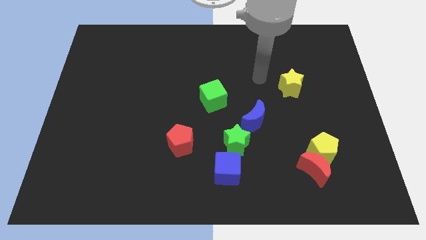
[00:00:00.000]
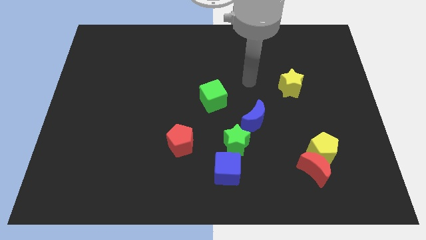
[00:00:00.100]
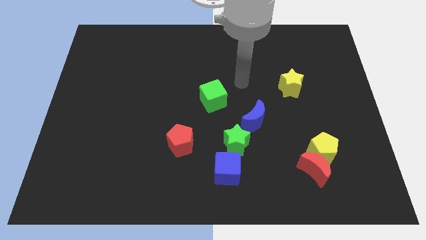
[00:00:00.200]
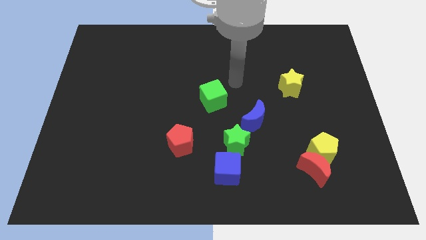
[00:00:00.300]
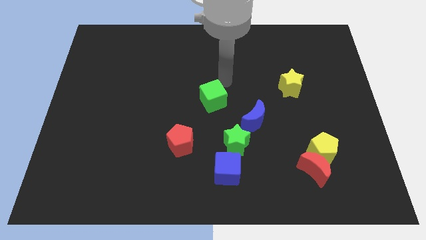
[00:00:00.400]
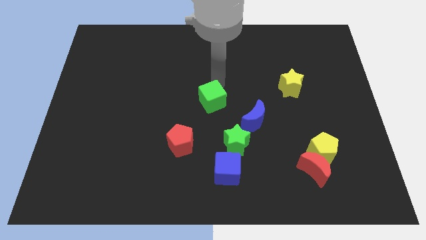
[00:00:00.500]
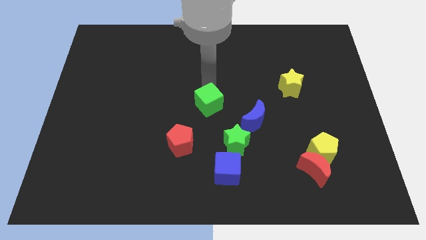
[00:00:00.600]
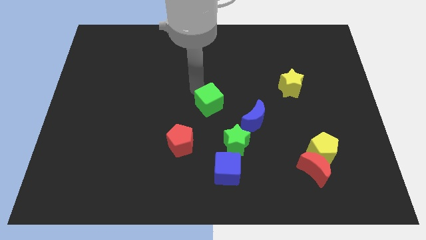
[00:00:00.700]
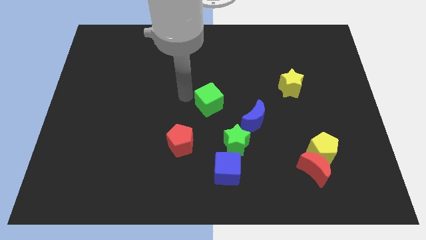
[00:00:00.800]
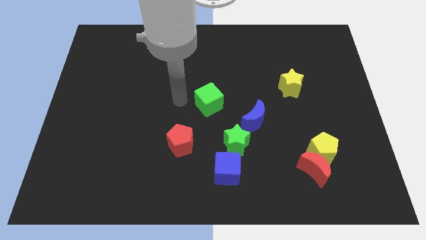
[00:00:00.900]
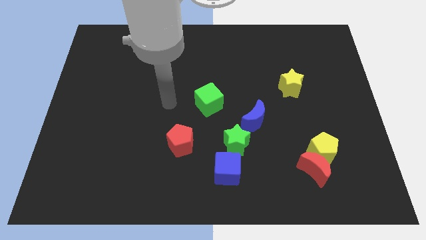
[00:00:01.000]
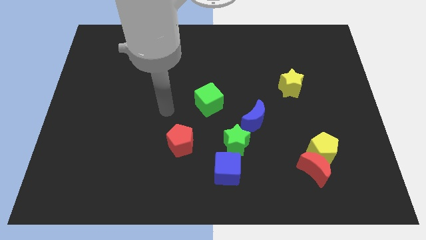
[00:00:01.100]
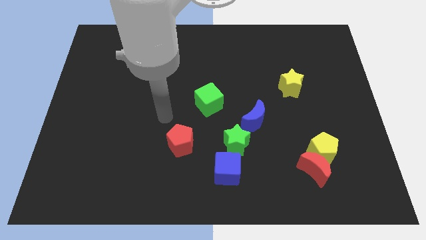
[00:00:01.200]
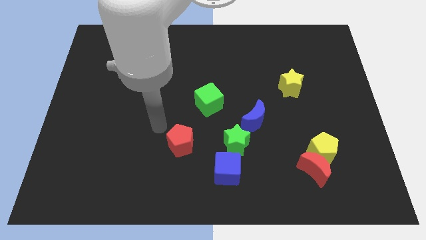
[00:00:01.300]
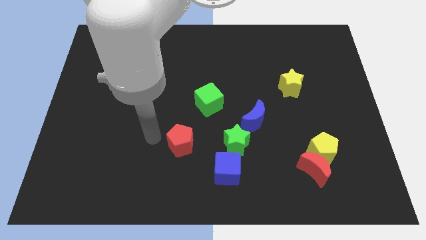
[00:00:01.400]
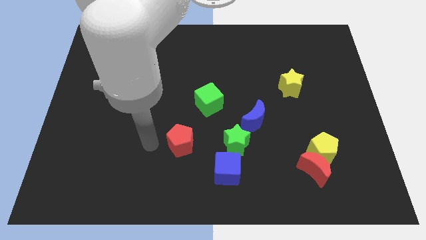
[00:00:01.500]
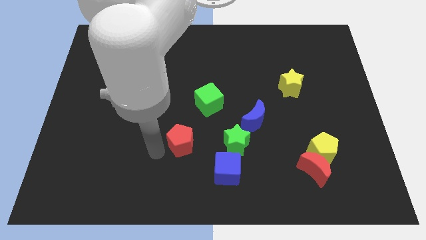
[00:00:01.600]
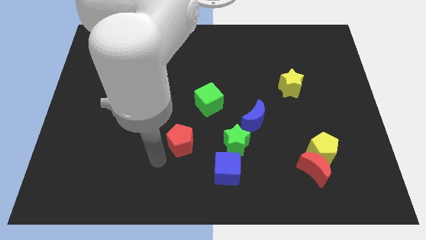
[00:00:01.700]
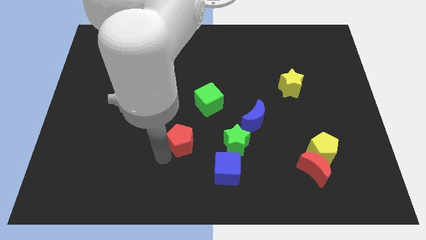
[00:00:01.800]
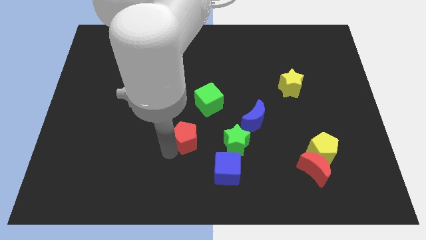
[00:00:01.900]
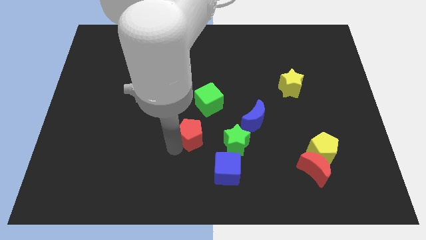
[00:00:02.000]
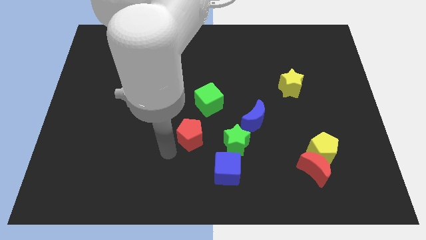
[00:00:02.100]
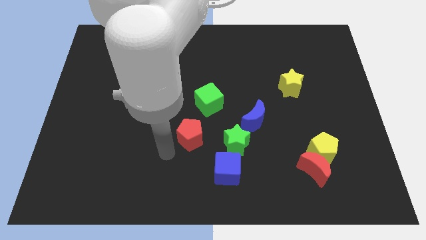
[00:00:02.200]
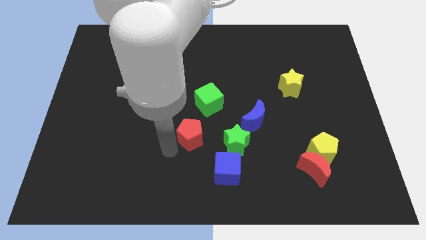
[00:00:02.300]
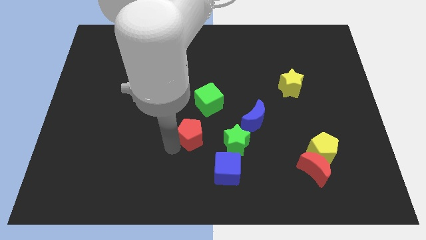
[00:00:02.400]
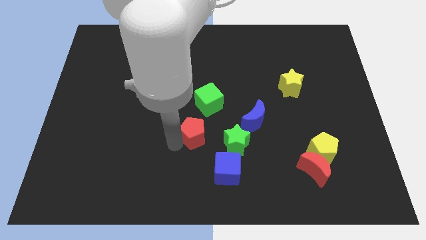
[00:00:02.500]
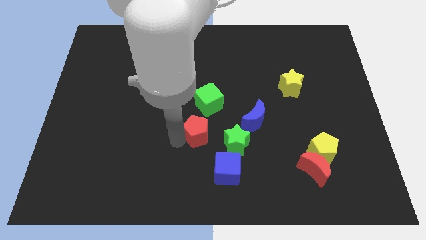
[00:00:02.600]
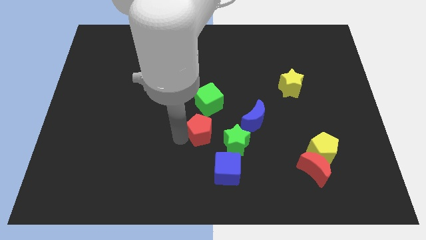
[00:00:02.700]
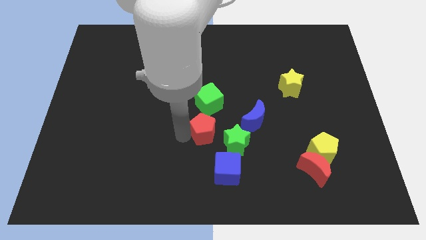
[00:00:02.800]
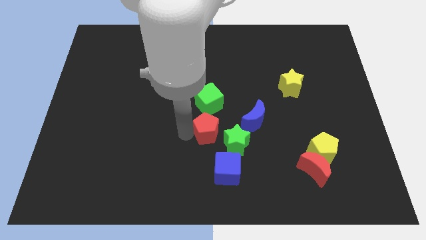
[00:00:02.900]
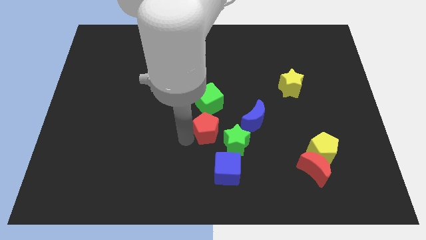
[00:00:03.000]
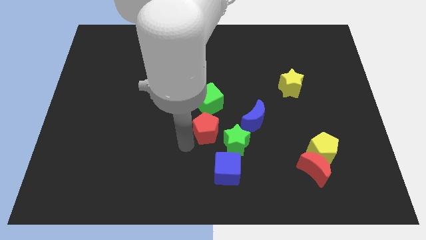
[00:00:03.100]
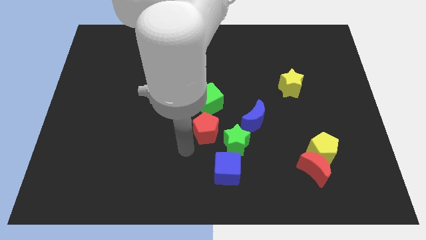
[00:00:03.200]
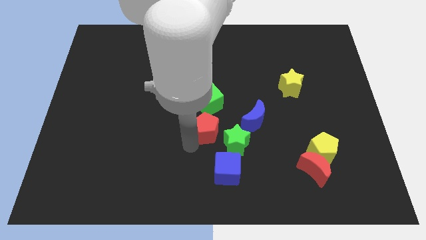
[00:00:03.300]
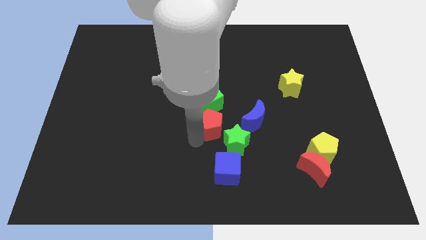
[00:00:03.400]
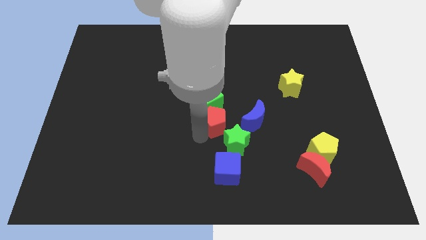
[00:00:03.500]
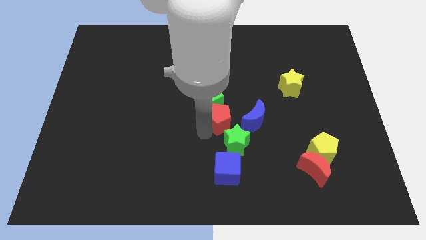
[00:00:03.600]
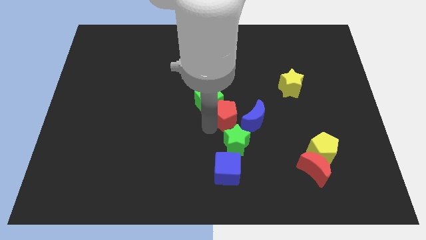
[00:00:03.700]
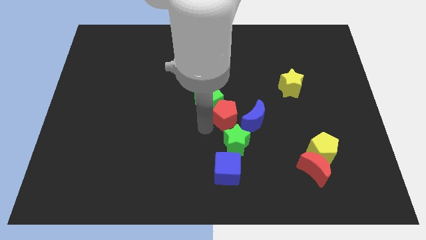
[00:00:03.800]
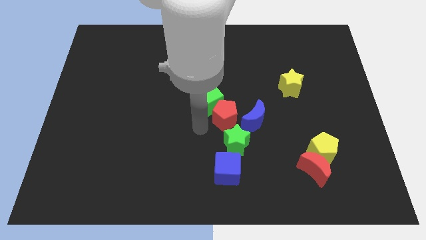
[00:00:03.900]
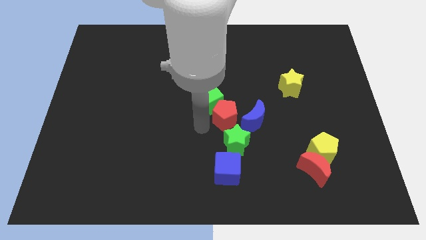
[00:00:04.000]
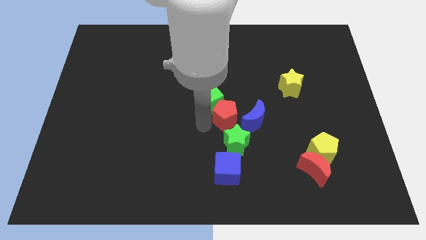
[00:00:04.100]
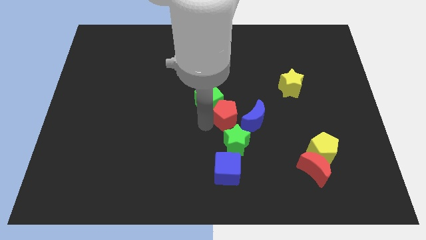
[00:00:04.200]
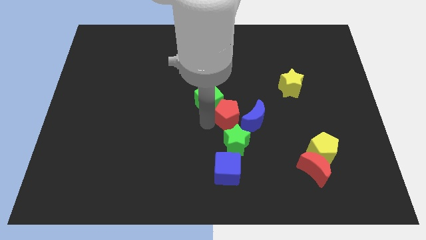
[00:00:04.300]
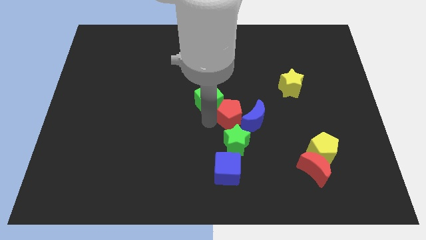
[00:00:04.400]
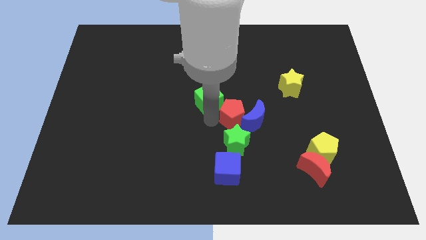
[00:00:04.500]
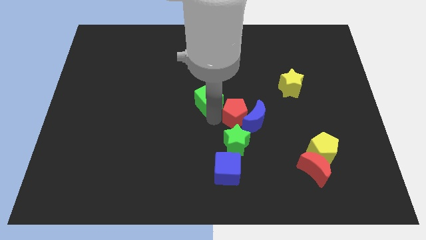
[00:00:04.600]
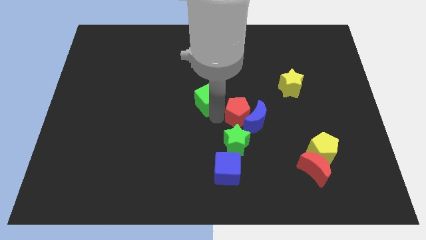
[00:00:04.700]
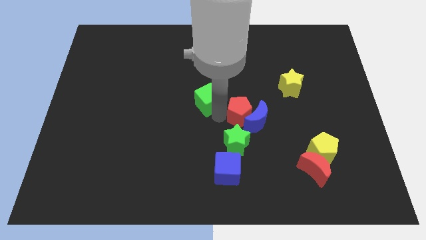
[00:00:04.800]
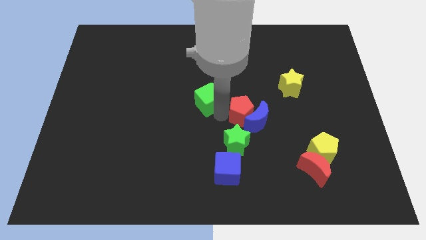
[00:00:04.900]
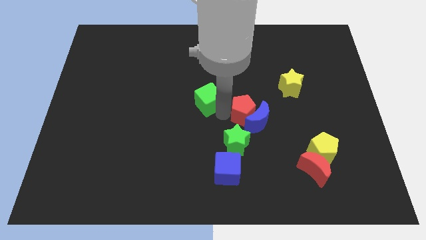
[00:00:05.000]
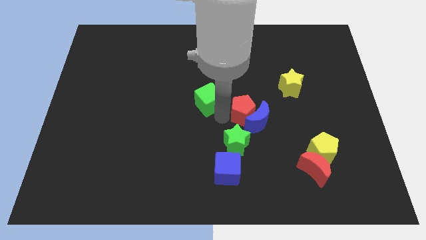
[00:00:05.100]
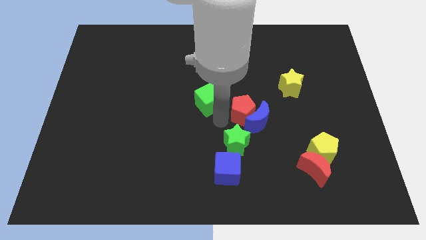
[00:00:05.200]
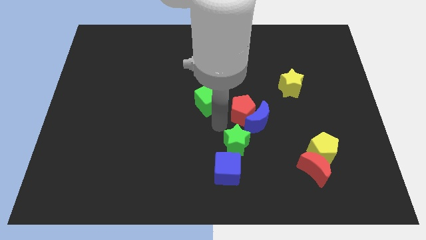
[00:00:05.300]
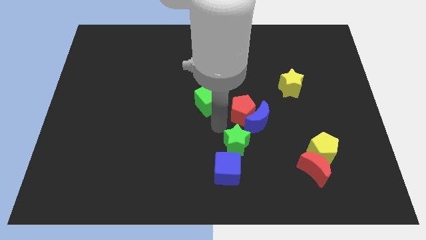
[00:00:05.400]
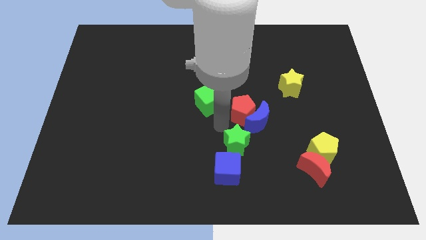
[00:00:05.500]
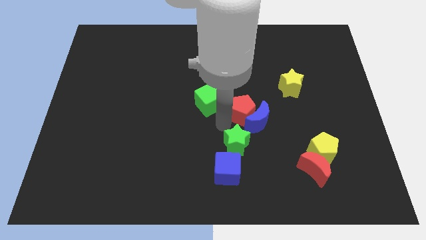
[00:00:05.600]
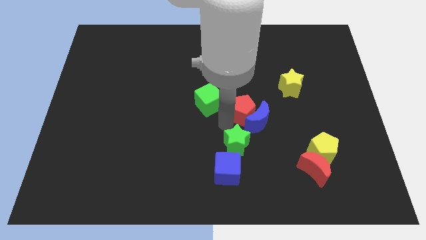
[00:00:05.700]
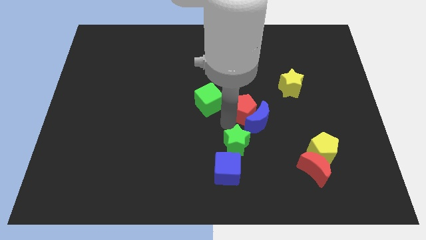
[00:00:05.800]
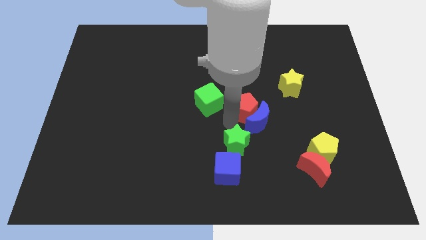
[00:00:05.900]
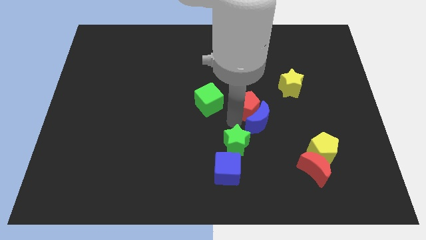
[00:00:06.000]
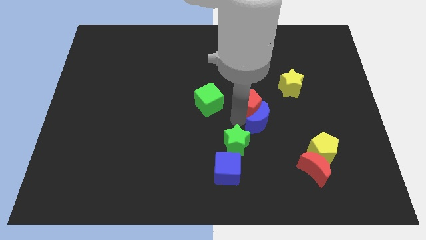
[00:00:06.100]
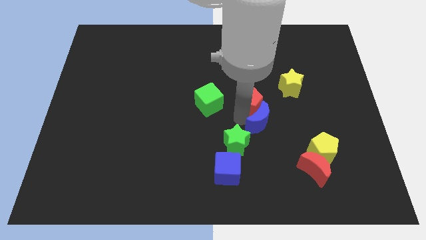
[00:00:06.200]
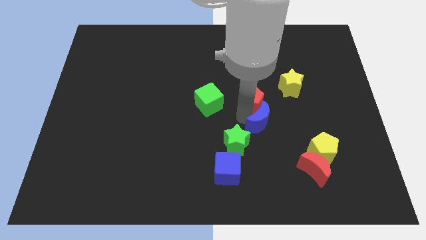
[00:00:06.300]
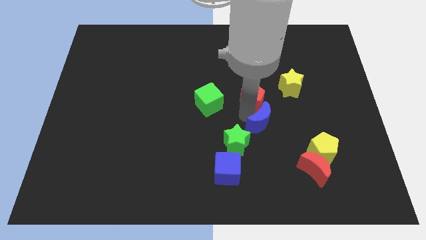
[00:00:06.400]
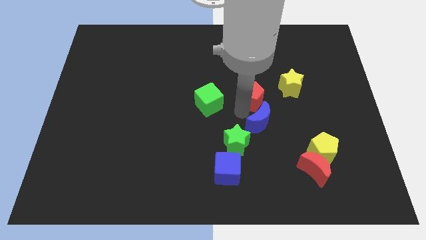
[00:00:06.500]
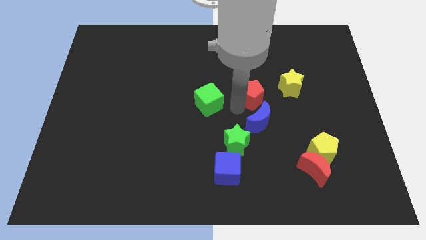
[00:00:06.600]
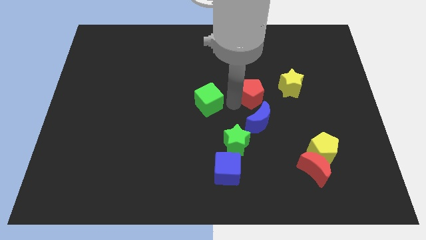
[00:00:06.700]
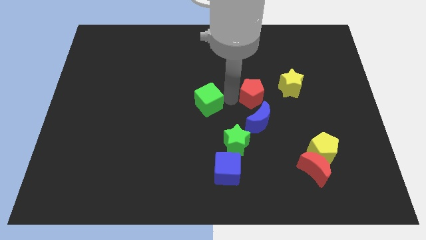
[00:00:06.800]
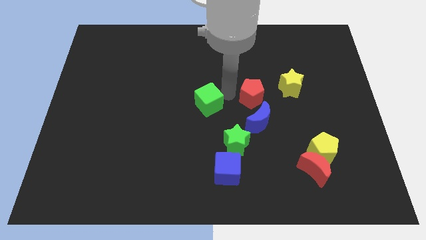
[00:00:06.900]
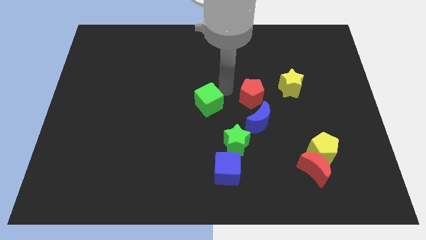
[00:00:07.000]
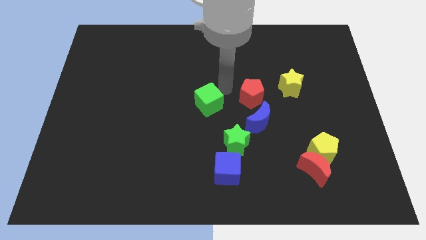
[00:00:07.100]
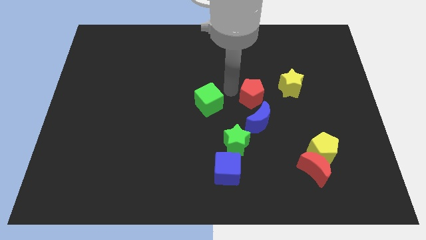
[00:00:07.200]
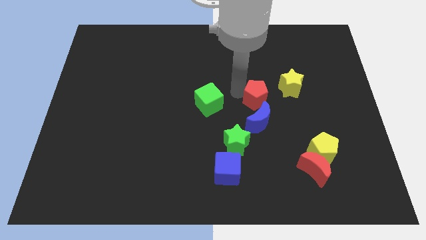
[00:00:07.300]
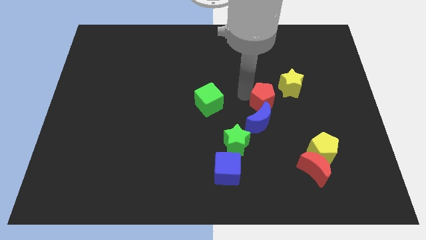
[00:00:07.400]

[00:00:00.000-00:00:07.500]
push the red pentagon to the top right of the blue moon

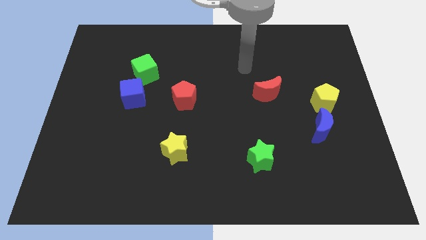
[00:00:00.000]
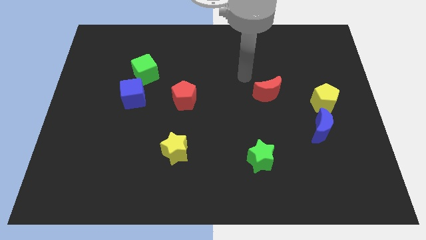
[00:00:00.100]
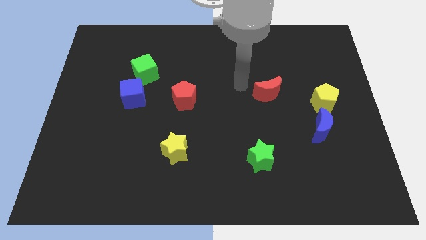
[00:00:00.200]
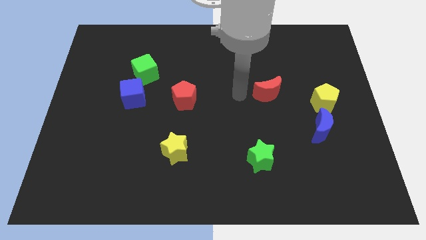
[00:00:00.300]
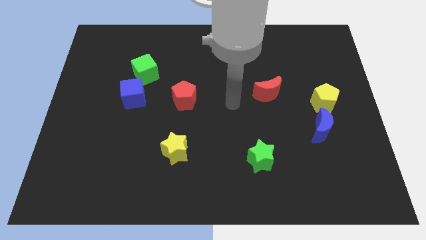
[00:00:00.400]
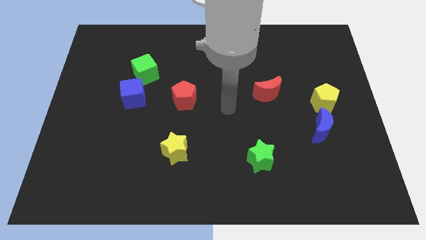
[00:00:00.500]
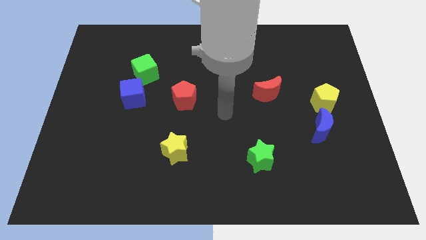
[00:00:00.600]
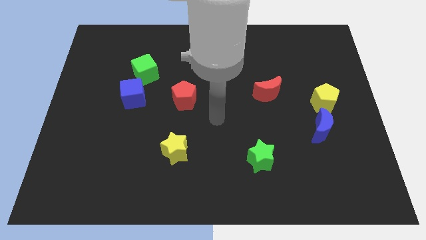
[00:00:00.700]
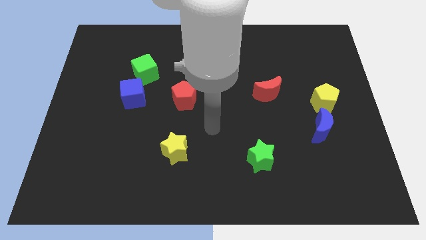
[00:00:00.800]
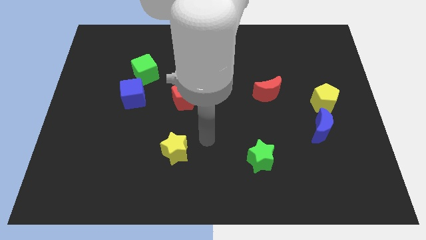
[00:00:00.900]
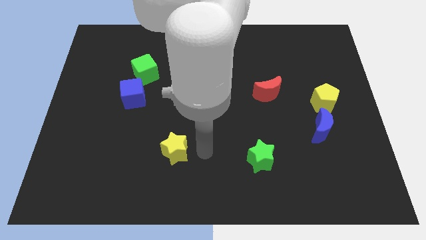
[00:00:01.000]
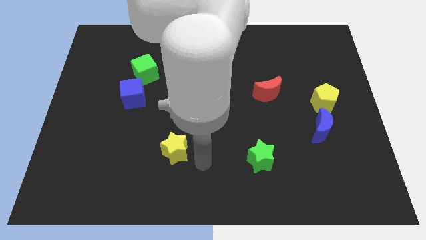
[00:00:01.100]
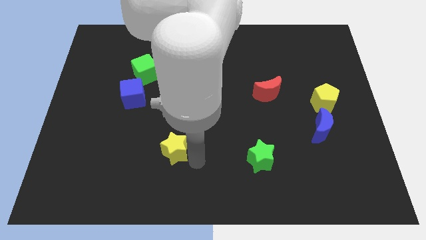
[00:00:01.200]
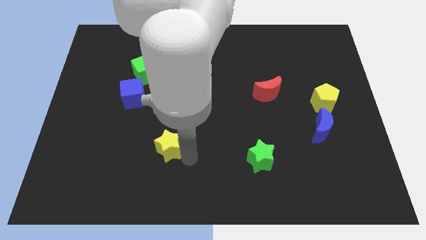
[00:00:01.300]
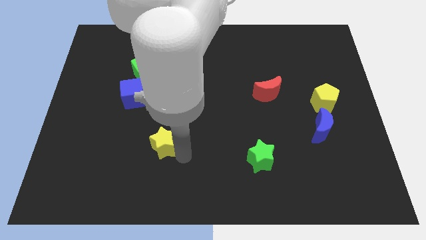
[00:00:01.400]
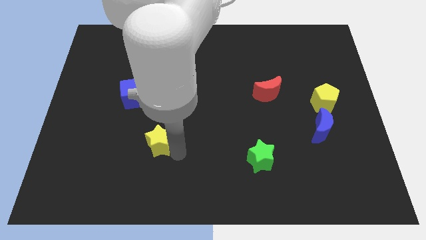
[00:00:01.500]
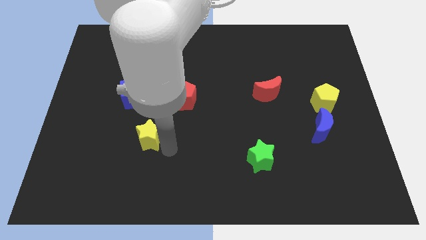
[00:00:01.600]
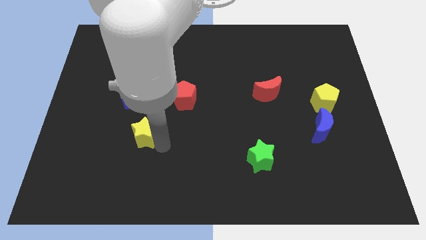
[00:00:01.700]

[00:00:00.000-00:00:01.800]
move the yellow star to the bottom side of the blue cube
